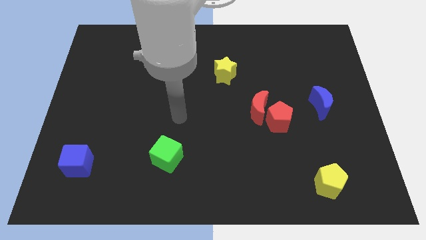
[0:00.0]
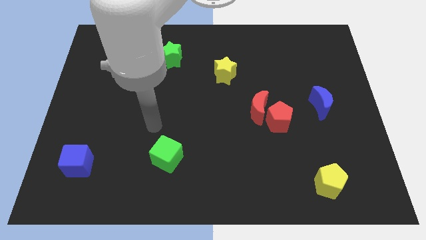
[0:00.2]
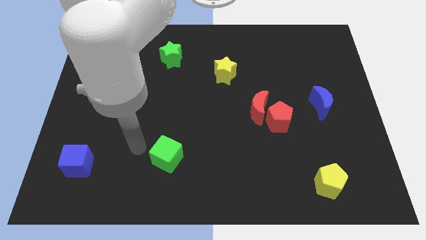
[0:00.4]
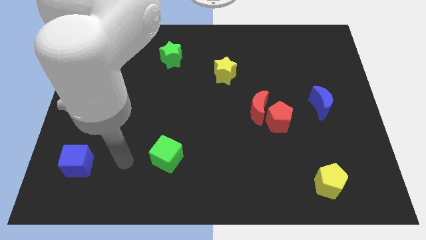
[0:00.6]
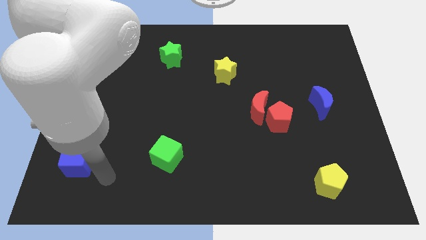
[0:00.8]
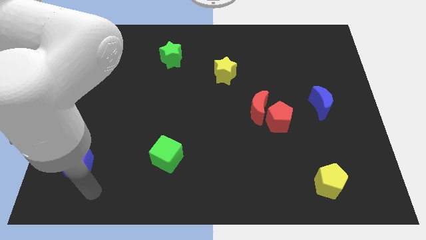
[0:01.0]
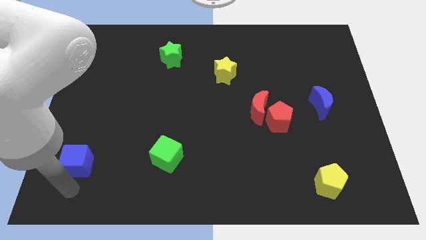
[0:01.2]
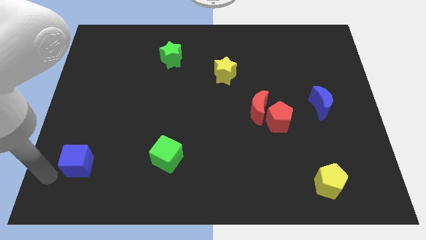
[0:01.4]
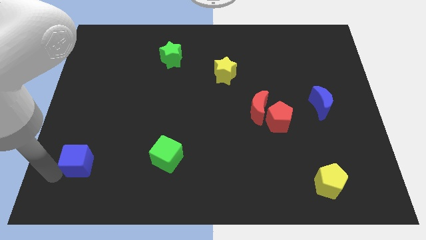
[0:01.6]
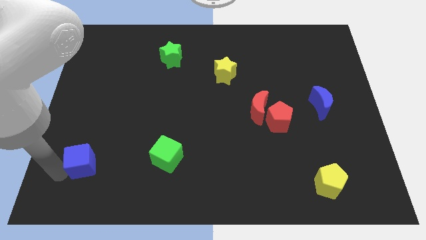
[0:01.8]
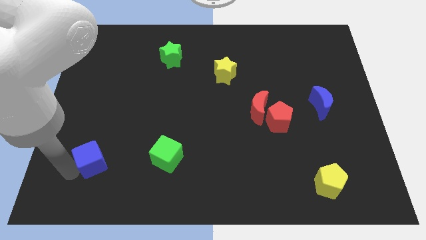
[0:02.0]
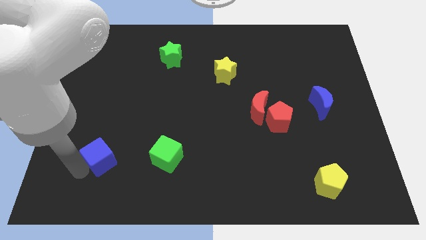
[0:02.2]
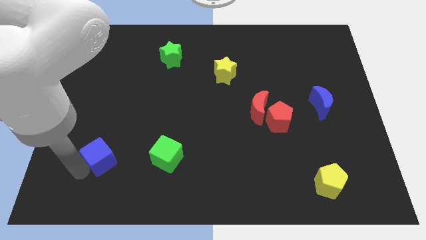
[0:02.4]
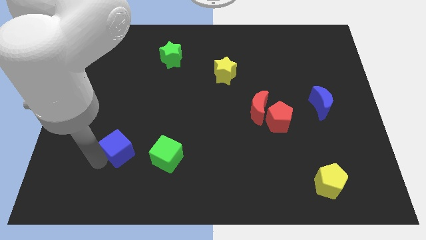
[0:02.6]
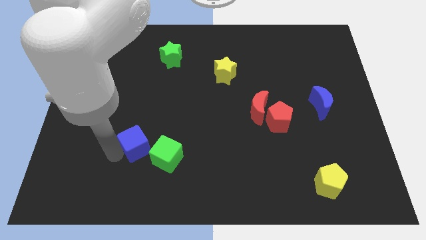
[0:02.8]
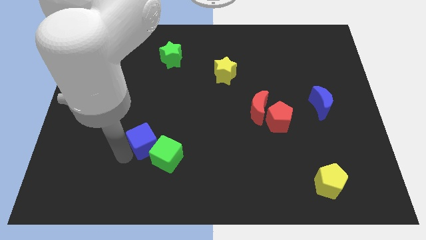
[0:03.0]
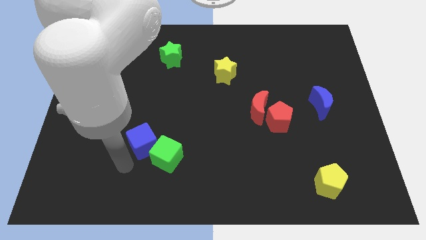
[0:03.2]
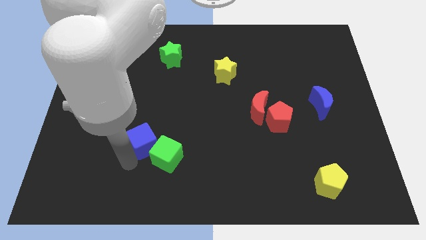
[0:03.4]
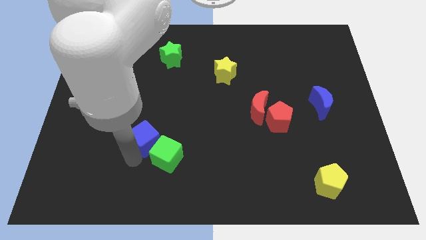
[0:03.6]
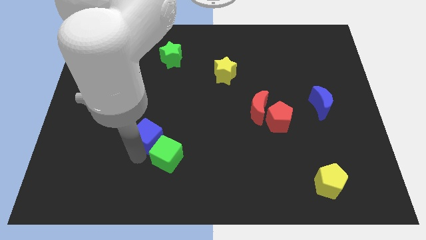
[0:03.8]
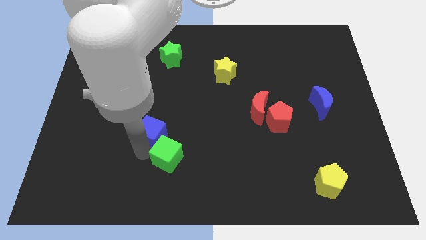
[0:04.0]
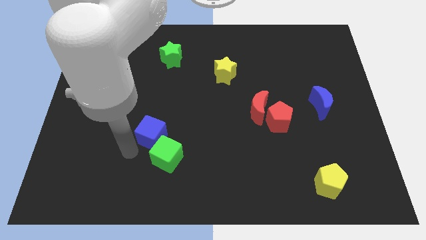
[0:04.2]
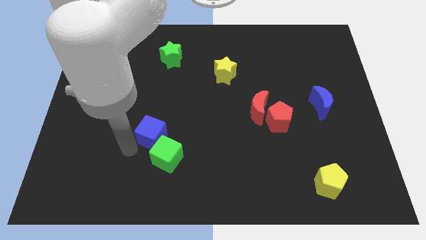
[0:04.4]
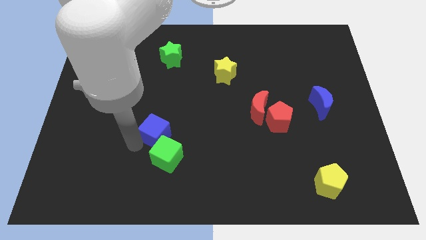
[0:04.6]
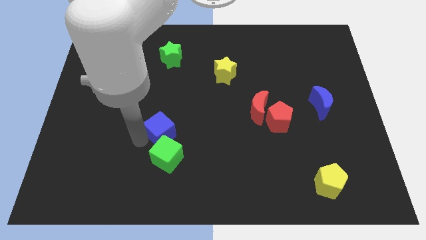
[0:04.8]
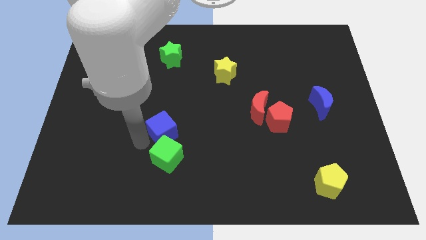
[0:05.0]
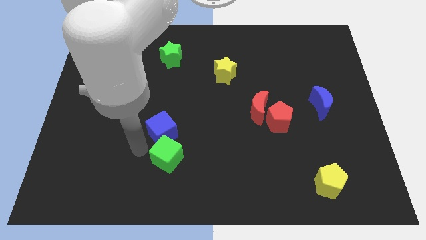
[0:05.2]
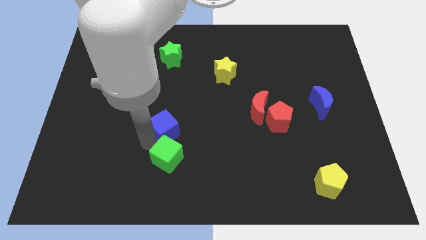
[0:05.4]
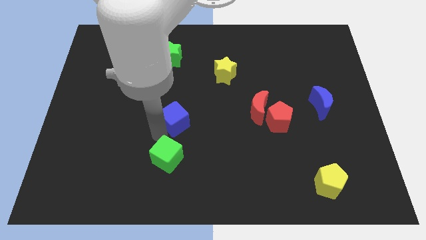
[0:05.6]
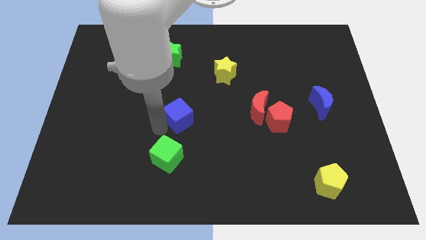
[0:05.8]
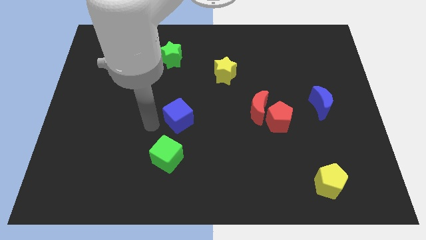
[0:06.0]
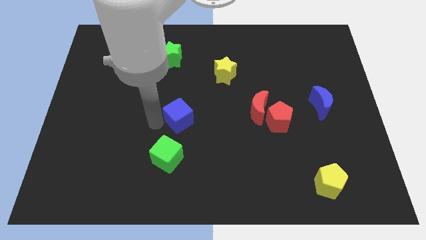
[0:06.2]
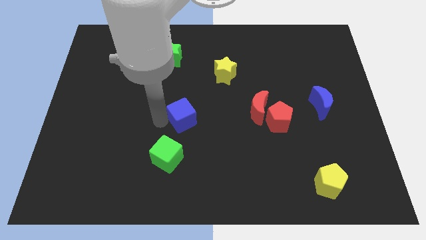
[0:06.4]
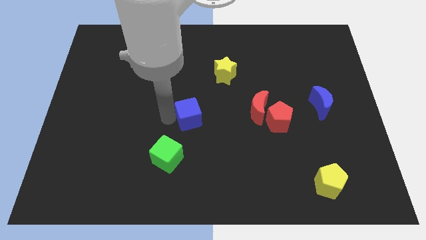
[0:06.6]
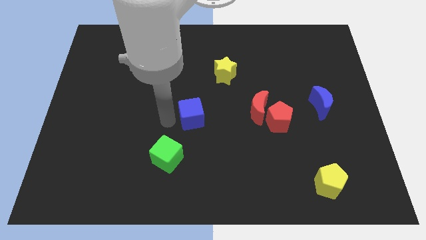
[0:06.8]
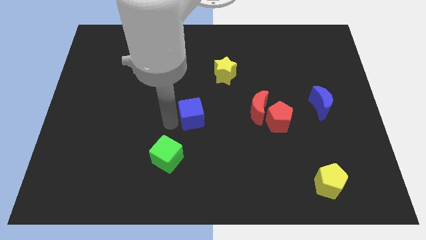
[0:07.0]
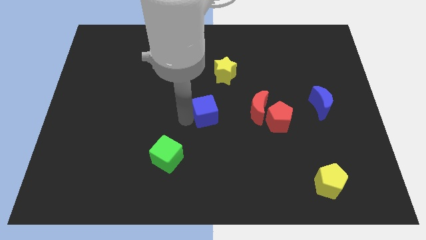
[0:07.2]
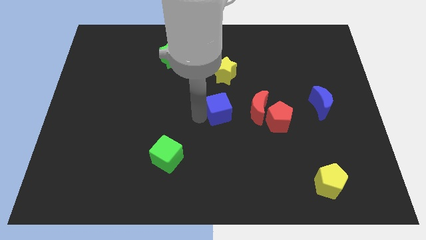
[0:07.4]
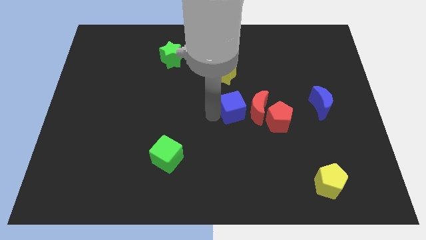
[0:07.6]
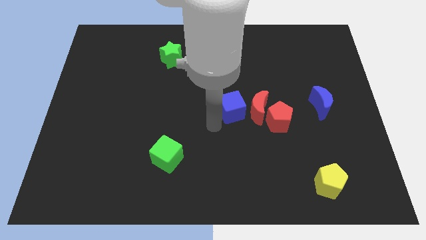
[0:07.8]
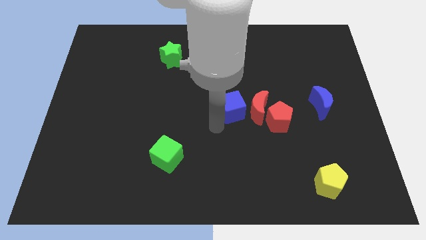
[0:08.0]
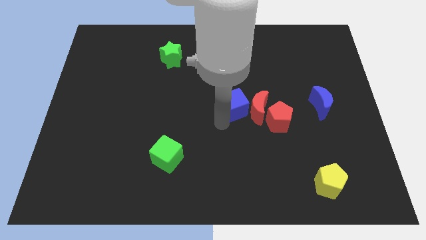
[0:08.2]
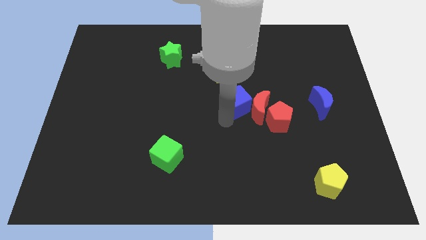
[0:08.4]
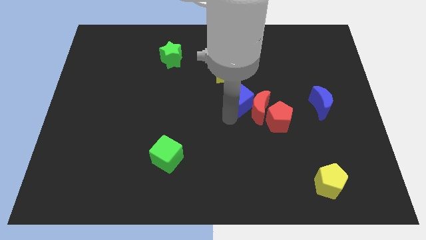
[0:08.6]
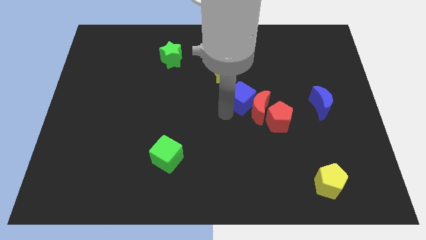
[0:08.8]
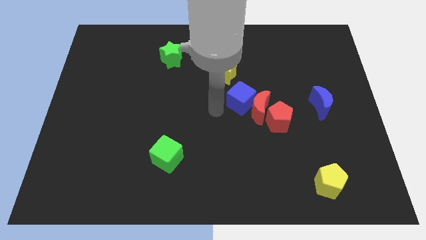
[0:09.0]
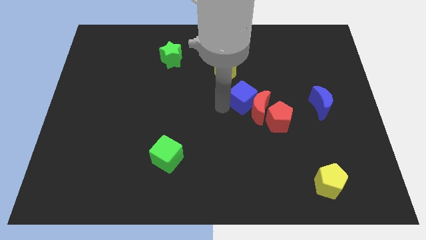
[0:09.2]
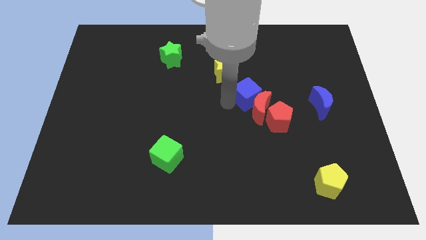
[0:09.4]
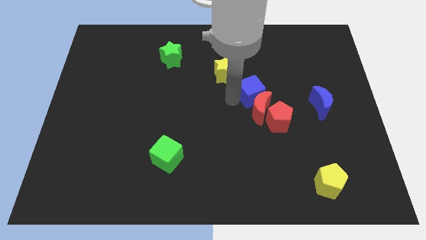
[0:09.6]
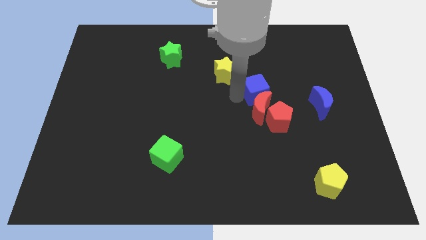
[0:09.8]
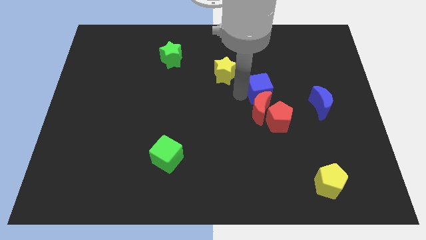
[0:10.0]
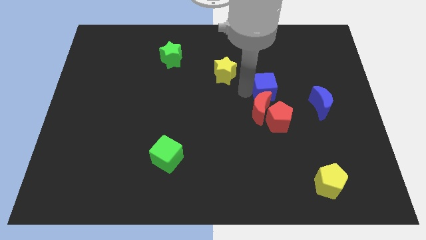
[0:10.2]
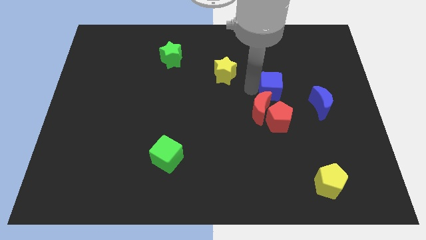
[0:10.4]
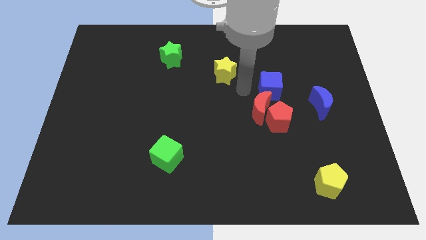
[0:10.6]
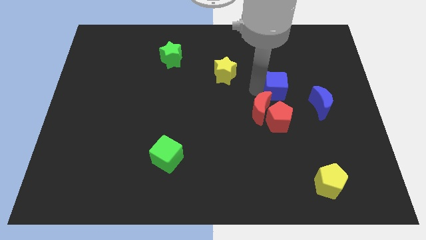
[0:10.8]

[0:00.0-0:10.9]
push the blue cube to the top left side of the blue moon

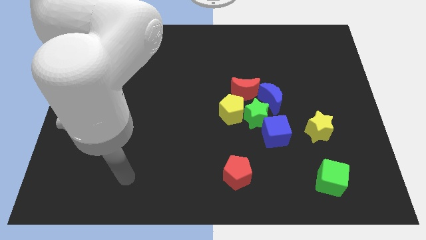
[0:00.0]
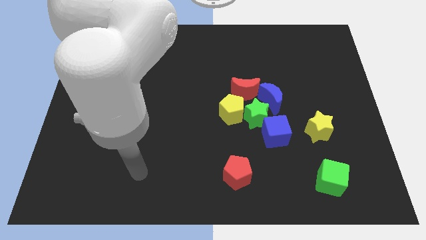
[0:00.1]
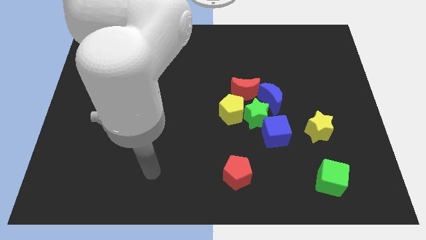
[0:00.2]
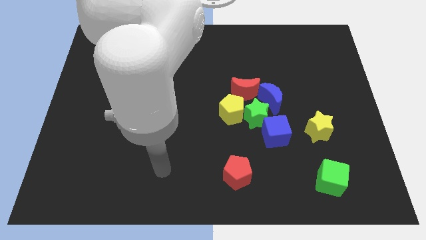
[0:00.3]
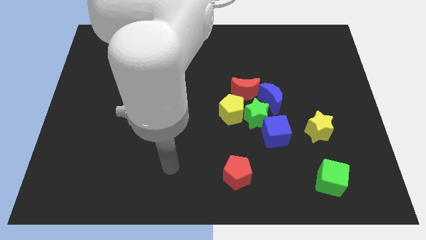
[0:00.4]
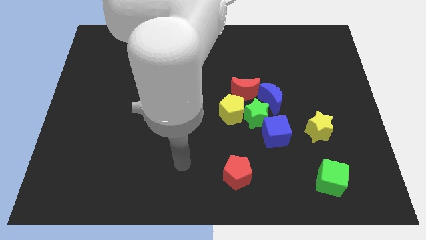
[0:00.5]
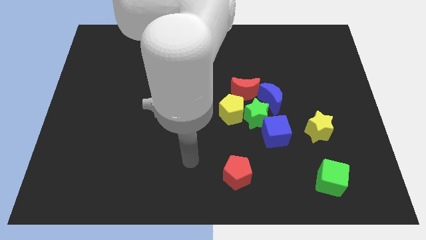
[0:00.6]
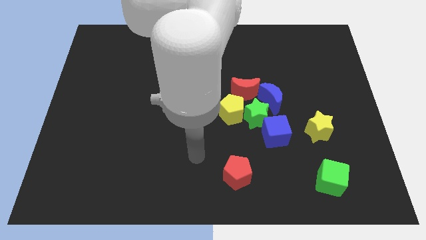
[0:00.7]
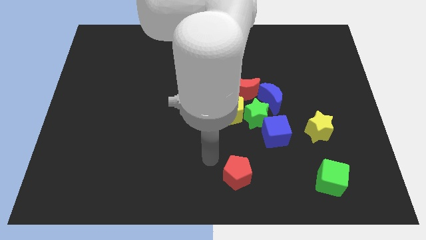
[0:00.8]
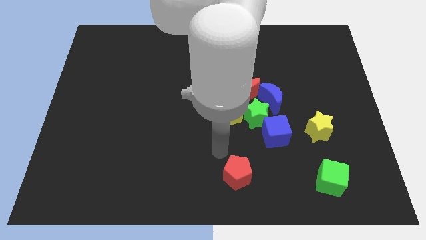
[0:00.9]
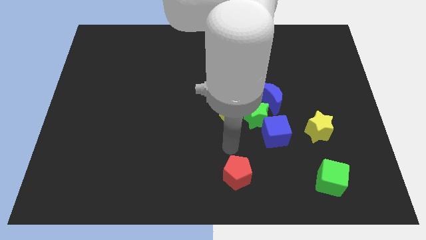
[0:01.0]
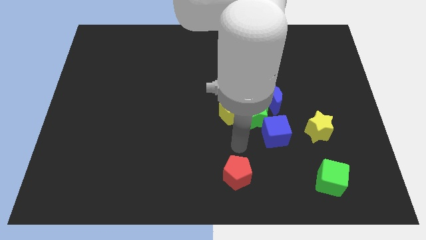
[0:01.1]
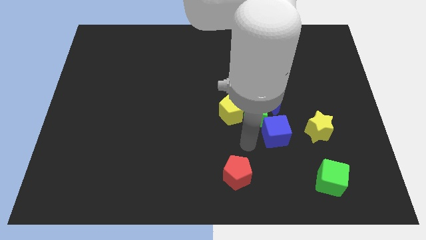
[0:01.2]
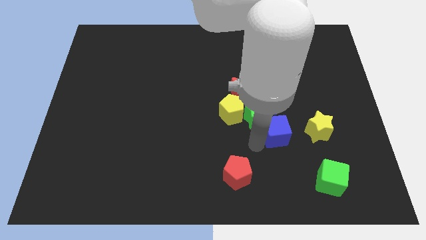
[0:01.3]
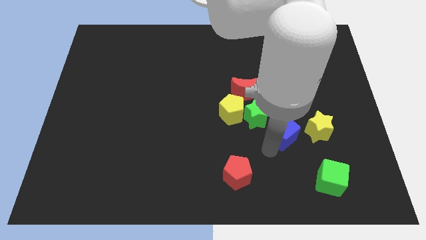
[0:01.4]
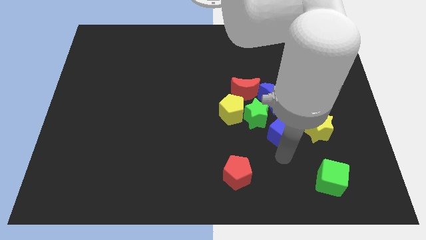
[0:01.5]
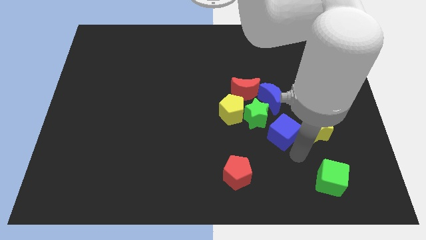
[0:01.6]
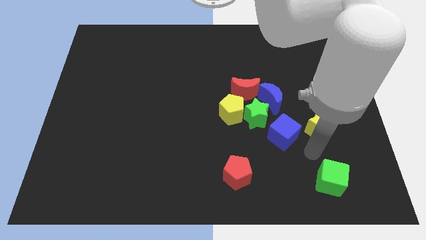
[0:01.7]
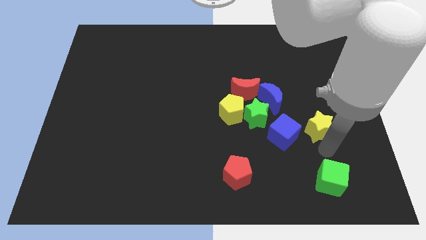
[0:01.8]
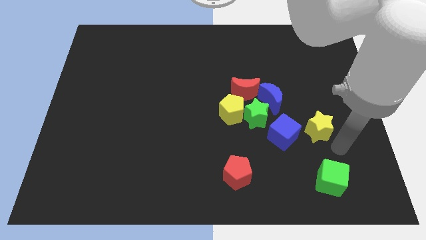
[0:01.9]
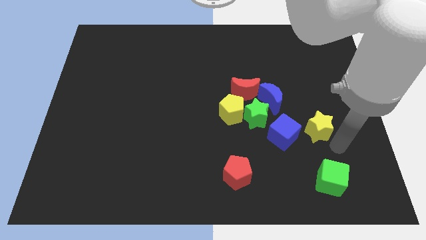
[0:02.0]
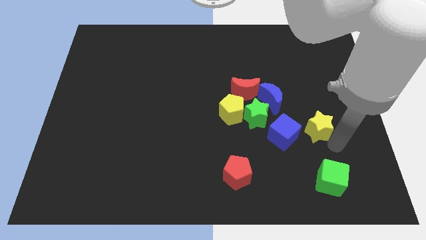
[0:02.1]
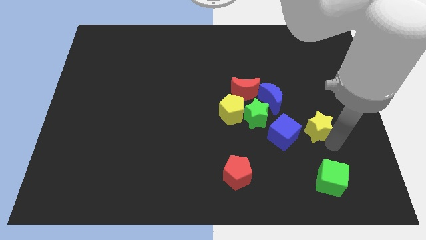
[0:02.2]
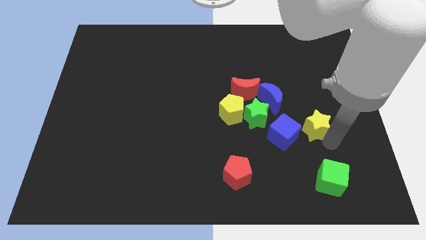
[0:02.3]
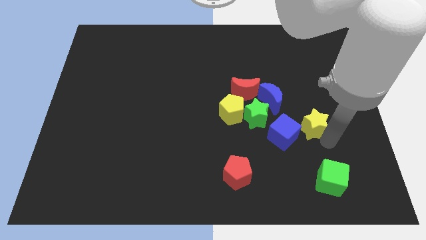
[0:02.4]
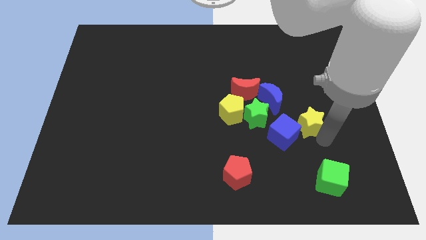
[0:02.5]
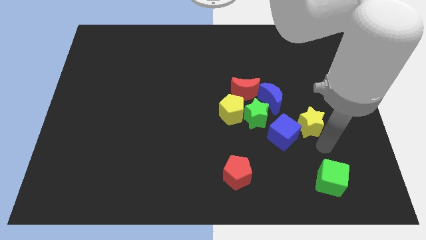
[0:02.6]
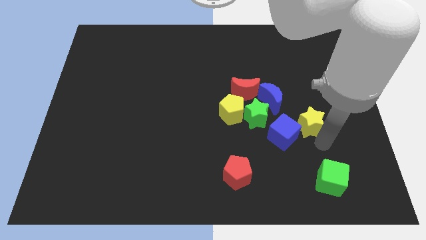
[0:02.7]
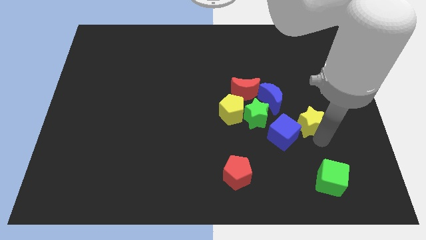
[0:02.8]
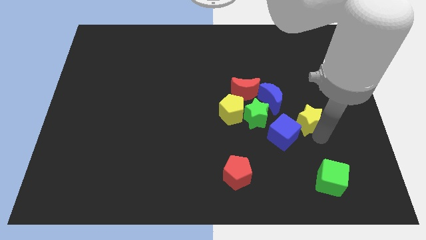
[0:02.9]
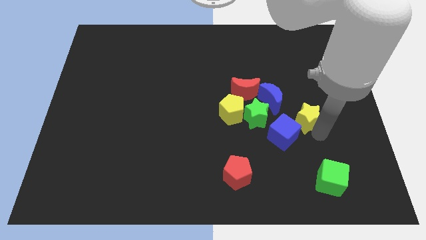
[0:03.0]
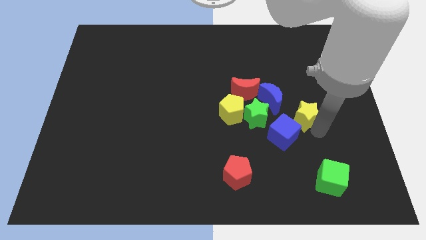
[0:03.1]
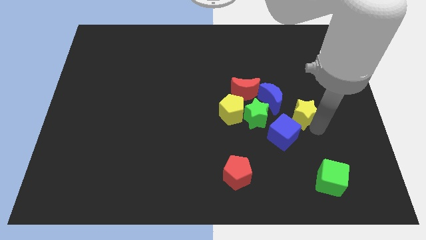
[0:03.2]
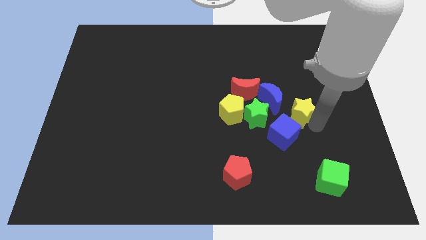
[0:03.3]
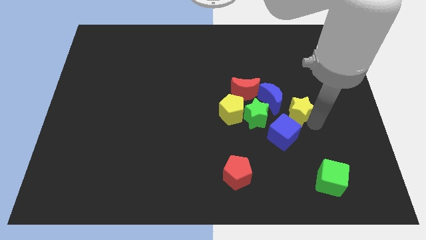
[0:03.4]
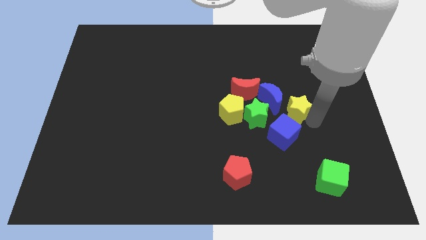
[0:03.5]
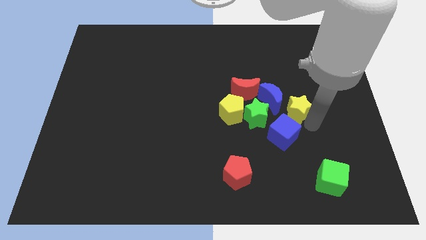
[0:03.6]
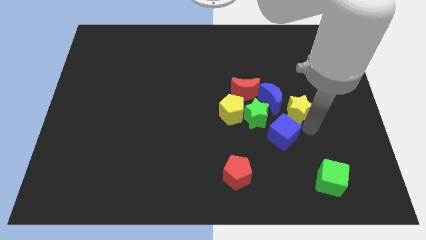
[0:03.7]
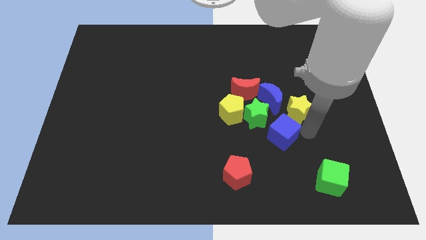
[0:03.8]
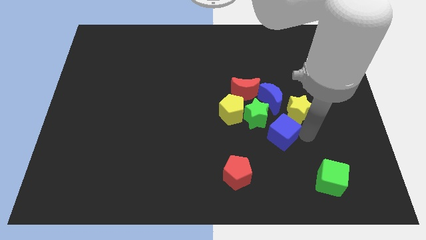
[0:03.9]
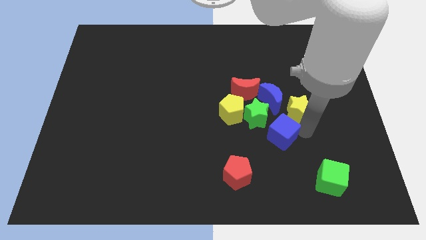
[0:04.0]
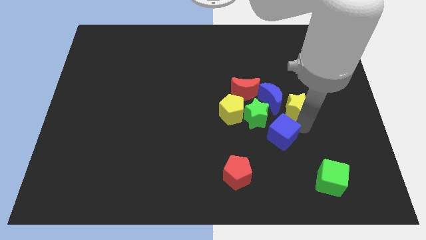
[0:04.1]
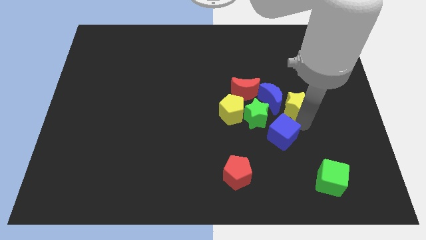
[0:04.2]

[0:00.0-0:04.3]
push the yellow star to the top right side of the green star
